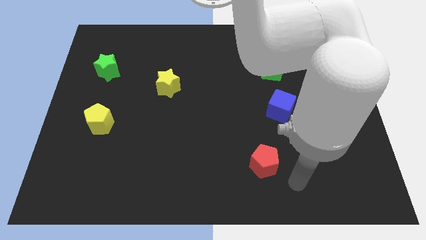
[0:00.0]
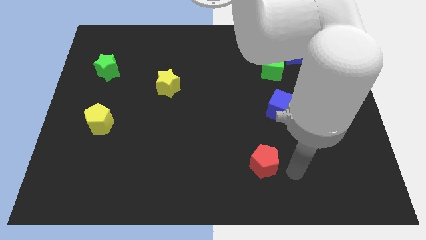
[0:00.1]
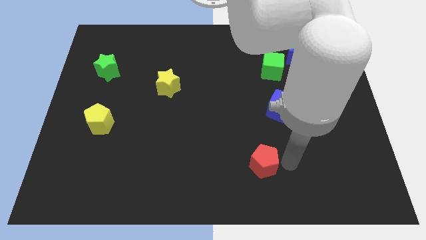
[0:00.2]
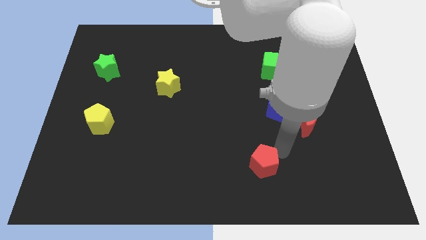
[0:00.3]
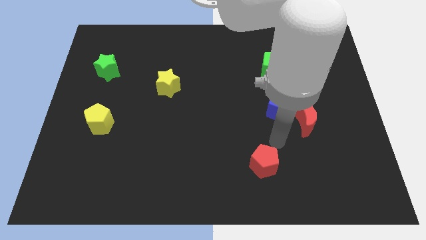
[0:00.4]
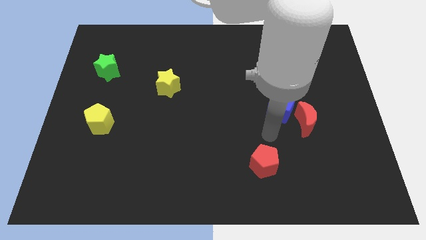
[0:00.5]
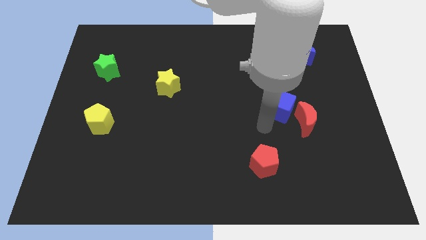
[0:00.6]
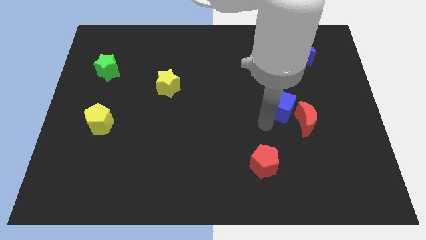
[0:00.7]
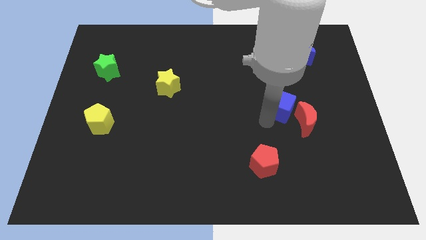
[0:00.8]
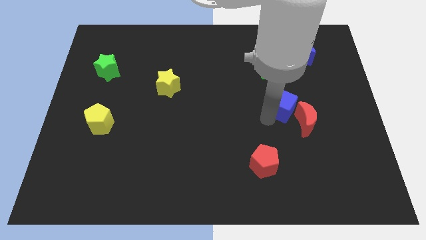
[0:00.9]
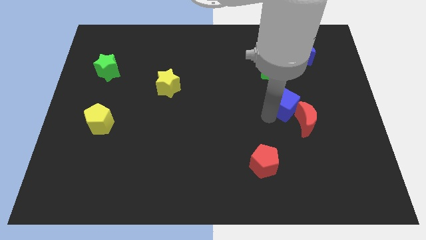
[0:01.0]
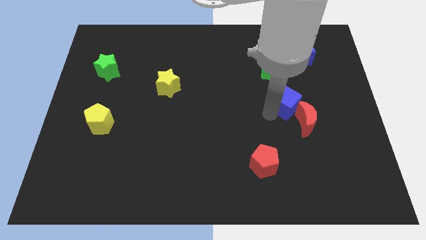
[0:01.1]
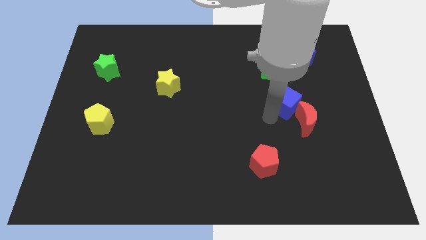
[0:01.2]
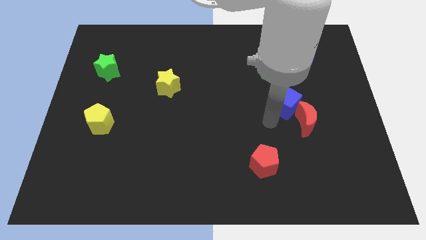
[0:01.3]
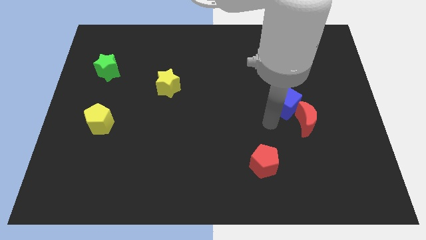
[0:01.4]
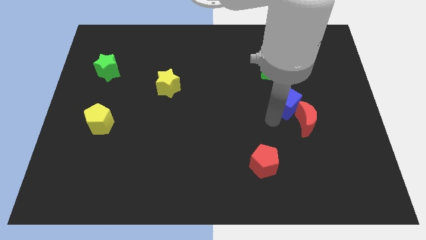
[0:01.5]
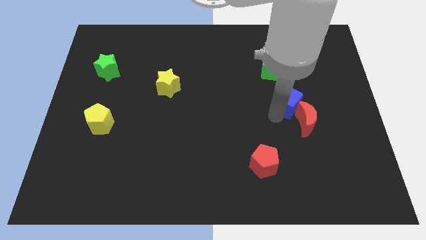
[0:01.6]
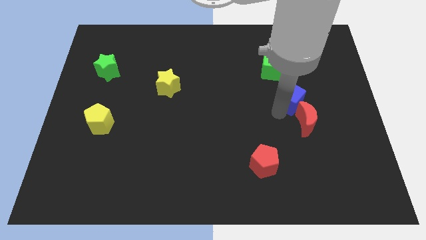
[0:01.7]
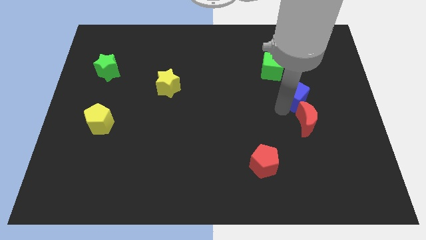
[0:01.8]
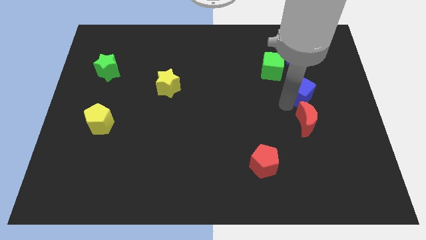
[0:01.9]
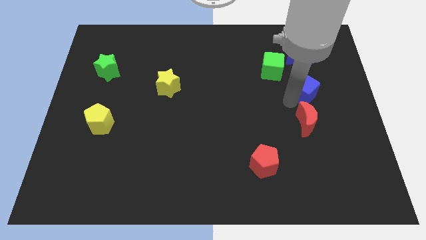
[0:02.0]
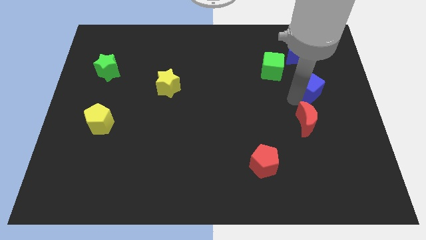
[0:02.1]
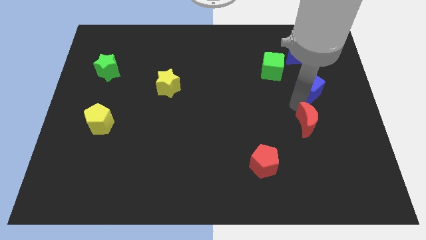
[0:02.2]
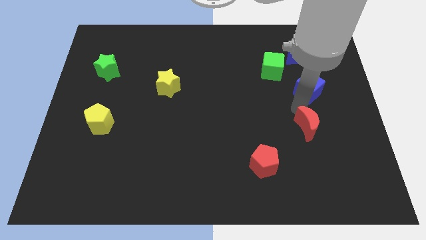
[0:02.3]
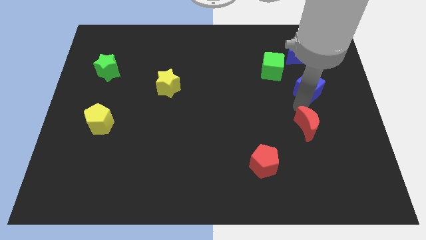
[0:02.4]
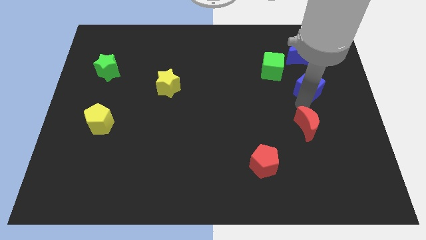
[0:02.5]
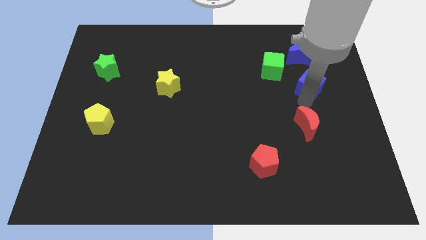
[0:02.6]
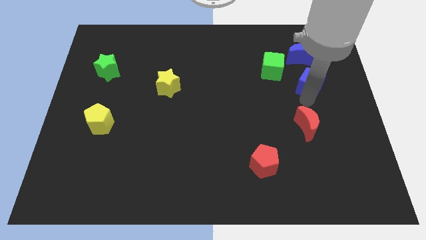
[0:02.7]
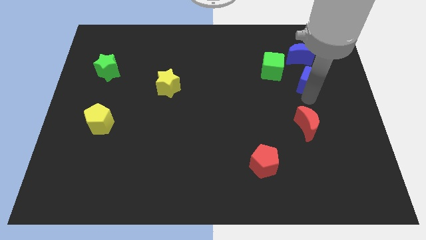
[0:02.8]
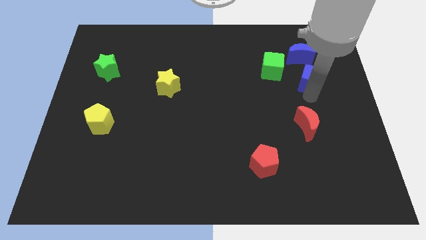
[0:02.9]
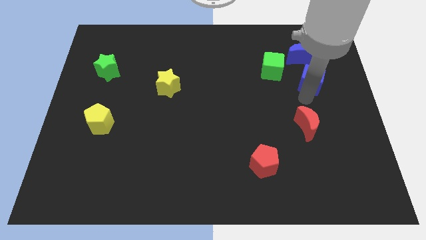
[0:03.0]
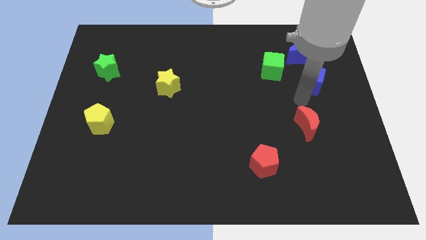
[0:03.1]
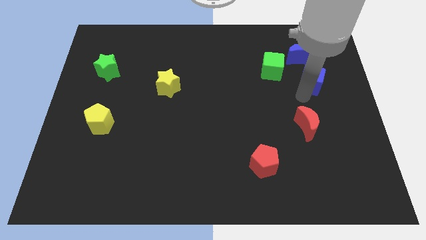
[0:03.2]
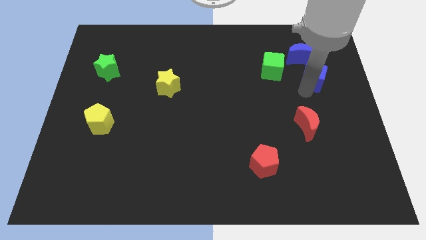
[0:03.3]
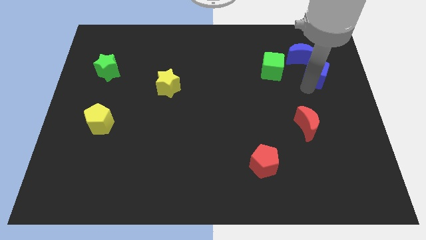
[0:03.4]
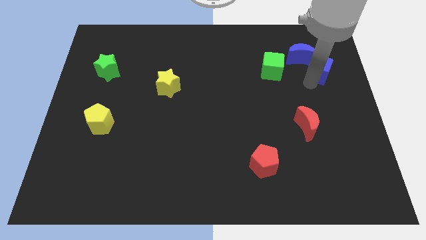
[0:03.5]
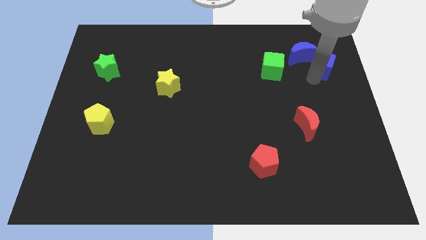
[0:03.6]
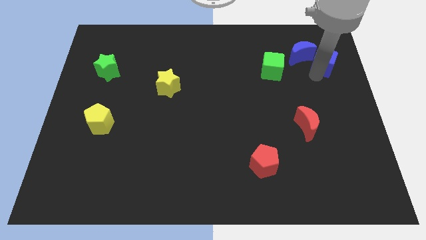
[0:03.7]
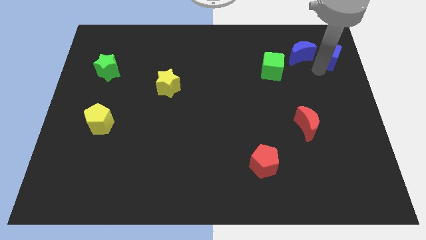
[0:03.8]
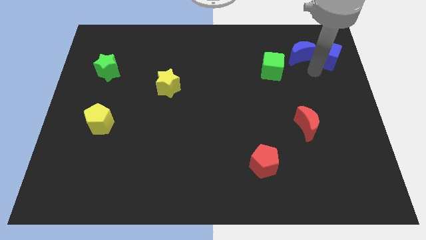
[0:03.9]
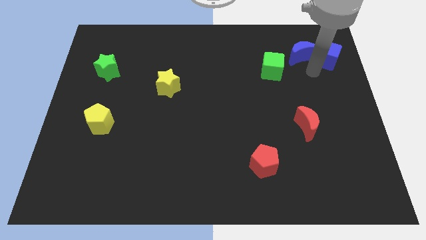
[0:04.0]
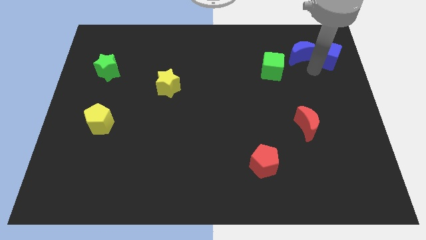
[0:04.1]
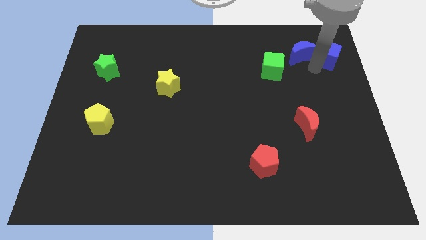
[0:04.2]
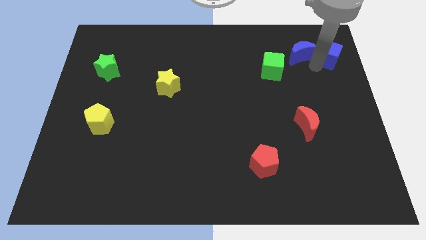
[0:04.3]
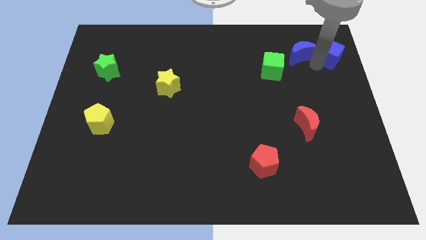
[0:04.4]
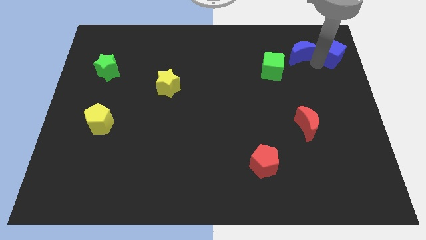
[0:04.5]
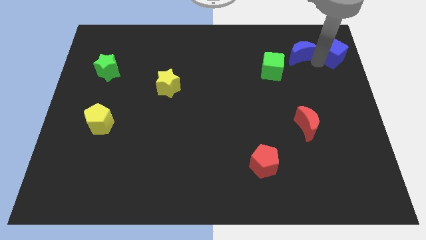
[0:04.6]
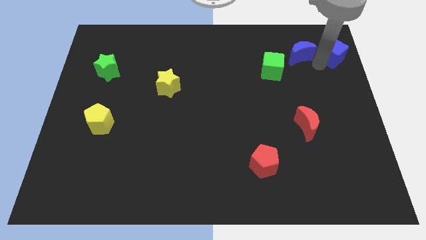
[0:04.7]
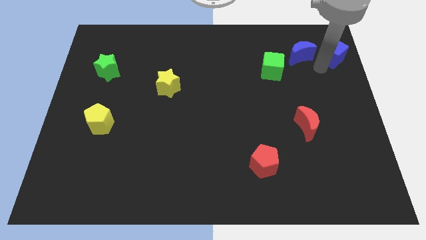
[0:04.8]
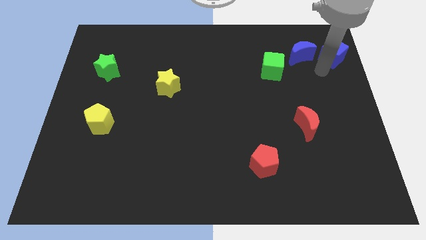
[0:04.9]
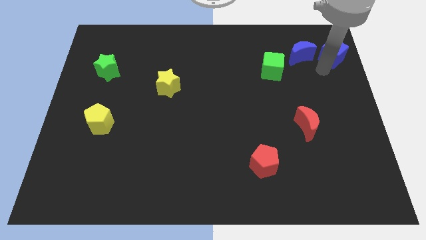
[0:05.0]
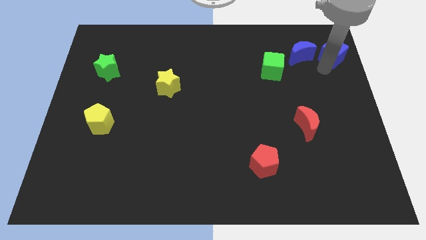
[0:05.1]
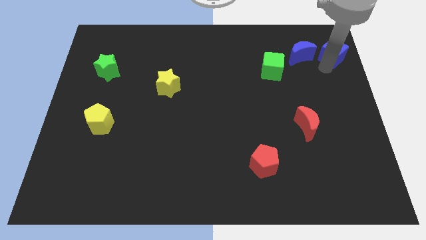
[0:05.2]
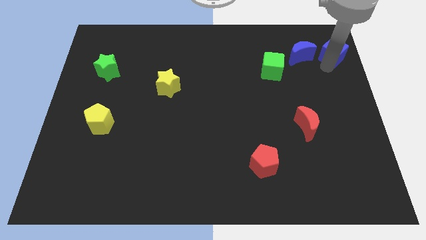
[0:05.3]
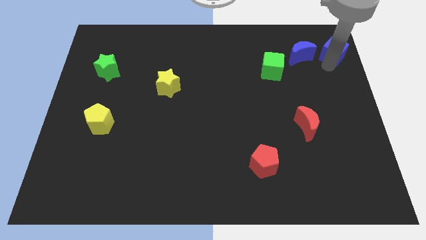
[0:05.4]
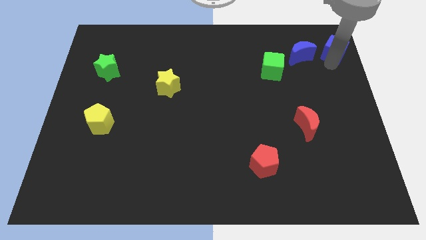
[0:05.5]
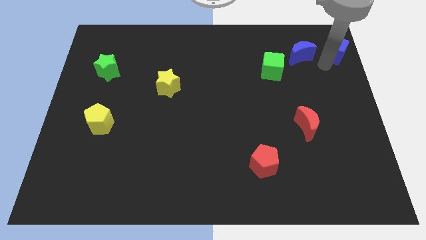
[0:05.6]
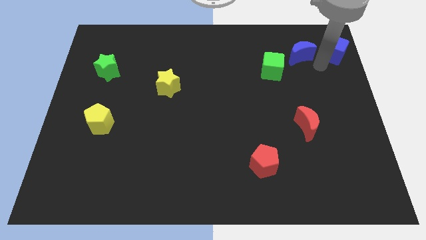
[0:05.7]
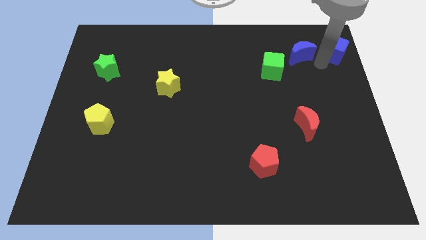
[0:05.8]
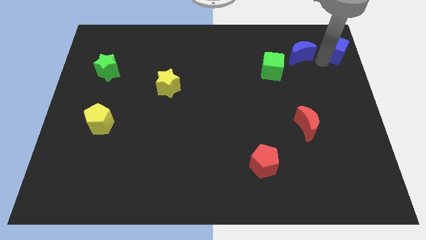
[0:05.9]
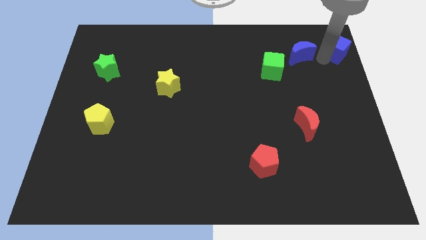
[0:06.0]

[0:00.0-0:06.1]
slide the blue cube to the top right of the board

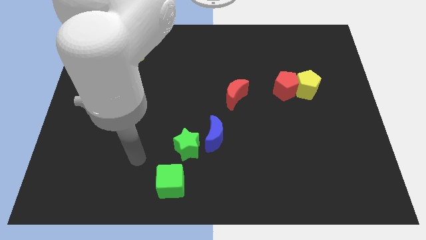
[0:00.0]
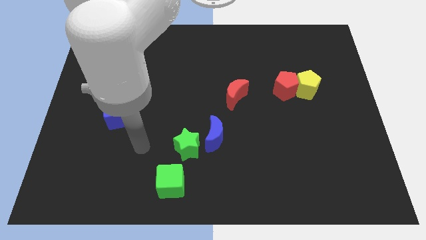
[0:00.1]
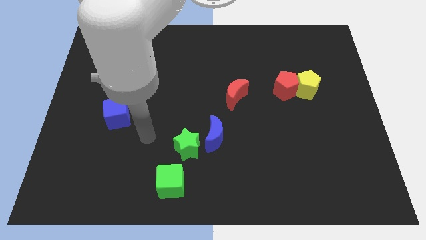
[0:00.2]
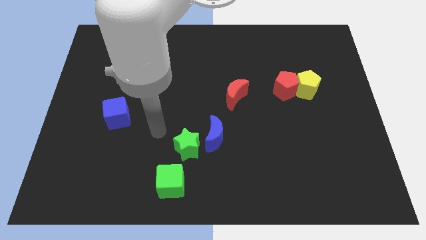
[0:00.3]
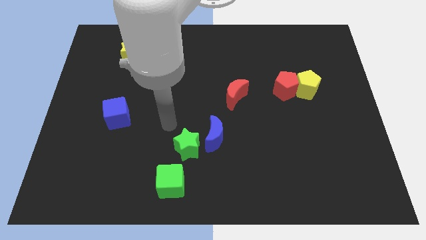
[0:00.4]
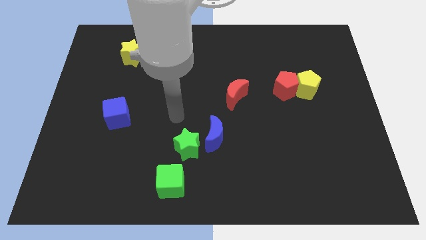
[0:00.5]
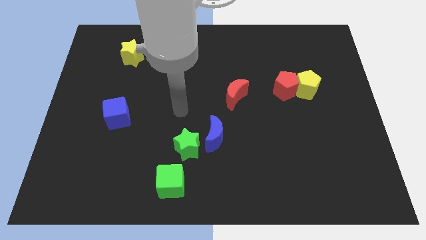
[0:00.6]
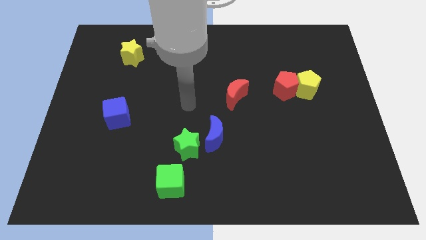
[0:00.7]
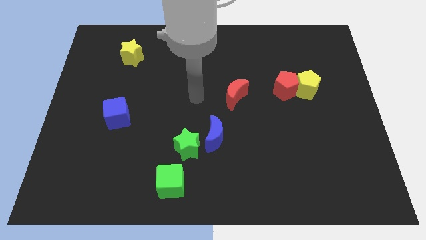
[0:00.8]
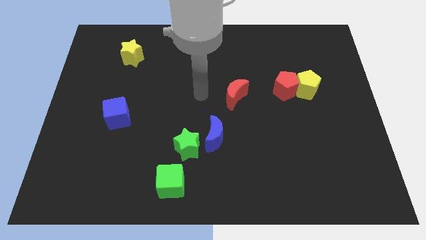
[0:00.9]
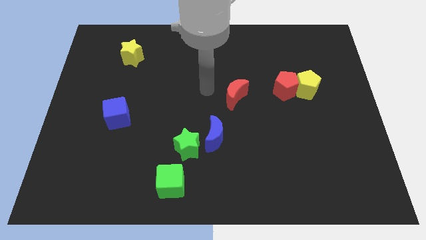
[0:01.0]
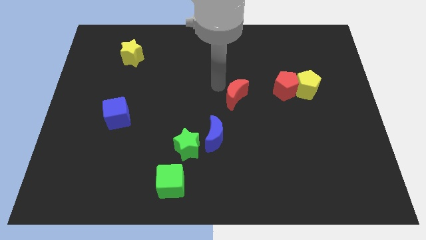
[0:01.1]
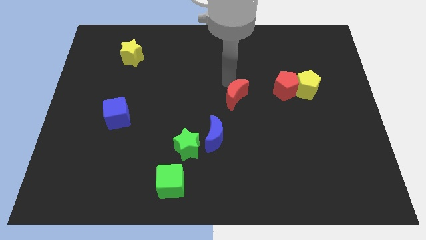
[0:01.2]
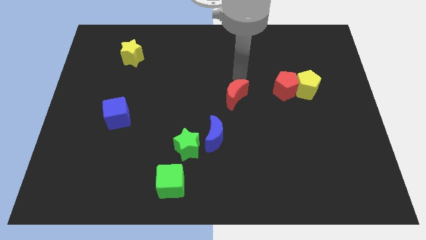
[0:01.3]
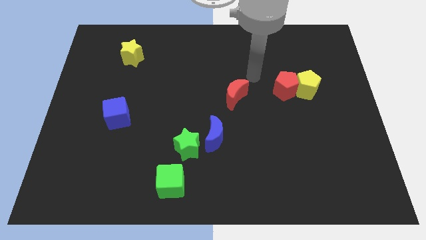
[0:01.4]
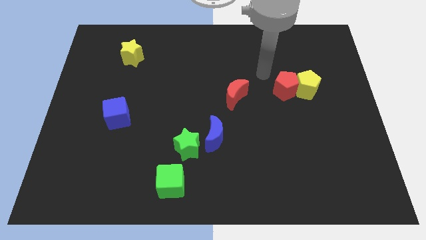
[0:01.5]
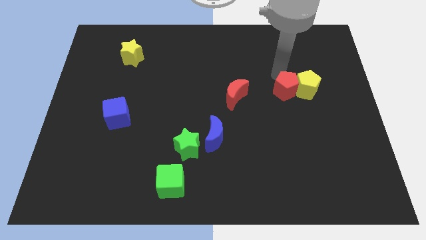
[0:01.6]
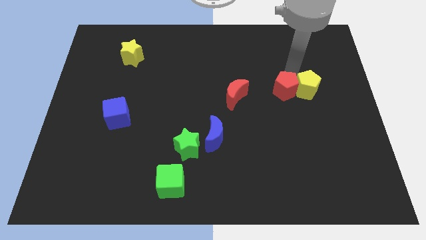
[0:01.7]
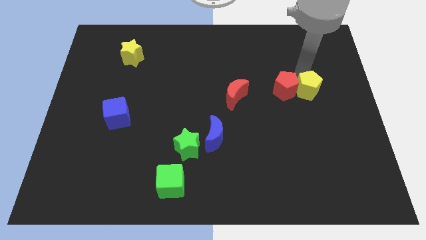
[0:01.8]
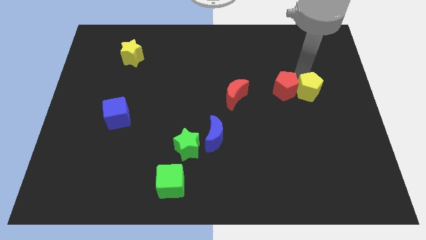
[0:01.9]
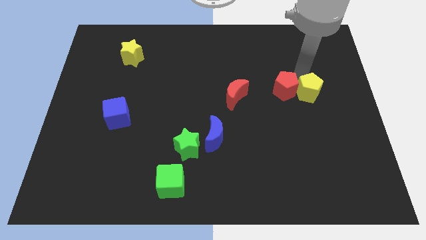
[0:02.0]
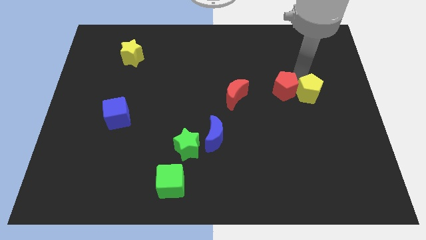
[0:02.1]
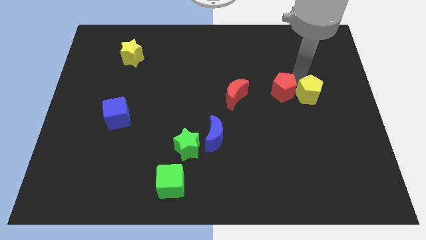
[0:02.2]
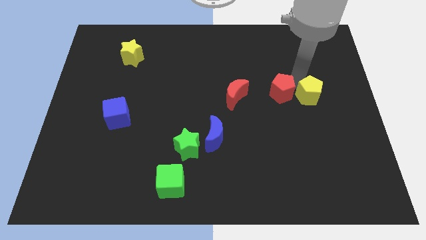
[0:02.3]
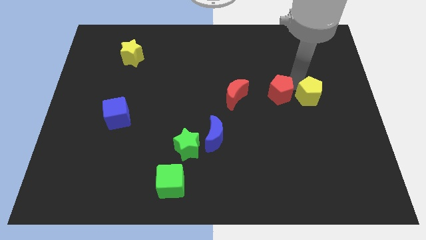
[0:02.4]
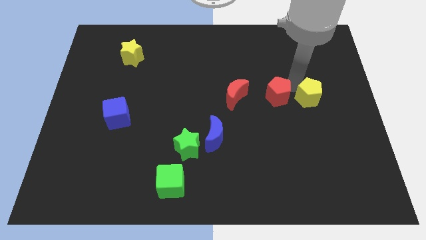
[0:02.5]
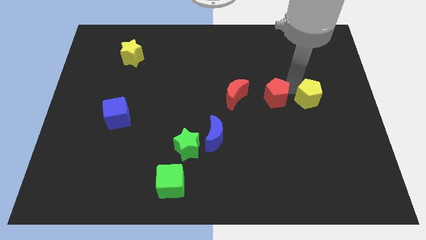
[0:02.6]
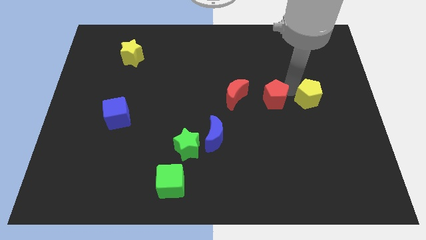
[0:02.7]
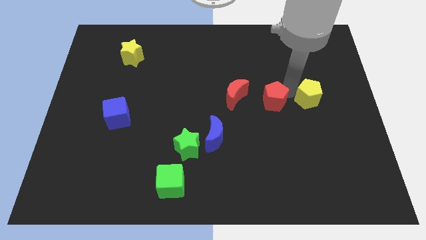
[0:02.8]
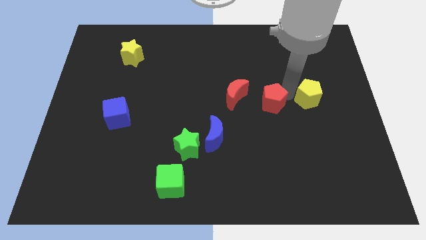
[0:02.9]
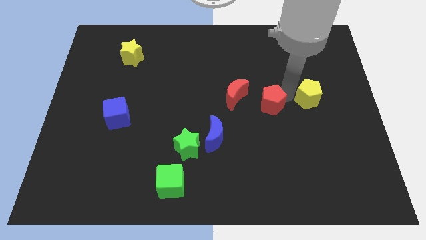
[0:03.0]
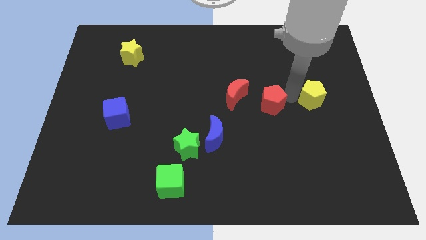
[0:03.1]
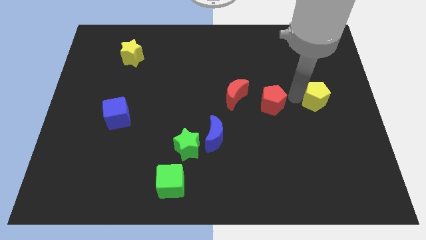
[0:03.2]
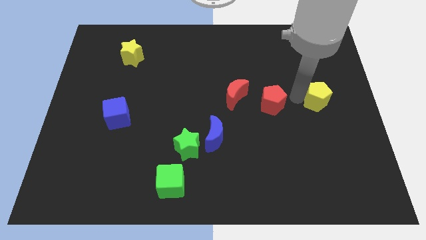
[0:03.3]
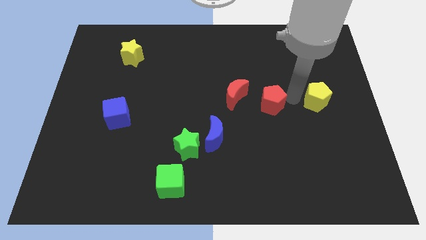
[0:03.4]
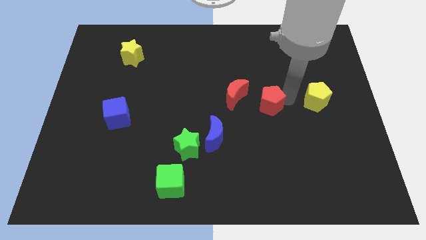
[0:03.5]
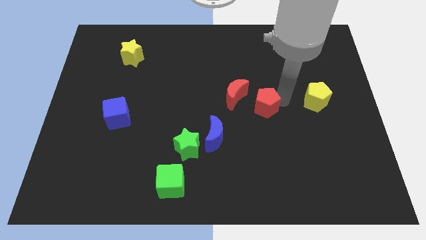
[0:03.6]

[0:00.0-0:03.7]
push the red pentagon to the middle of the board
